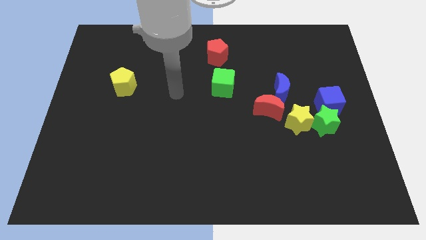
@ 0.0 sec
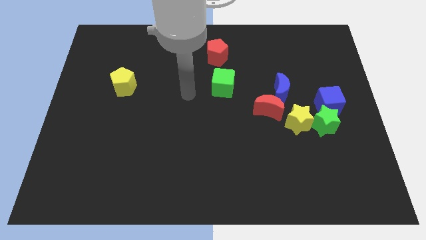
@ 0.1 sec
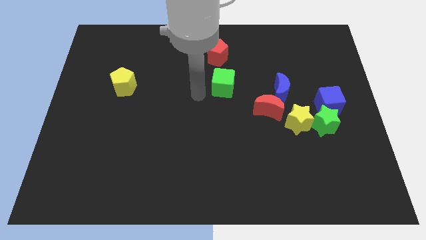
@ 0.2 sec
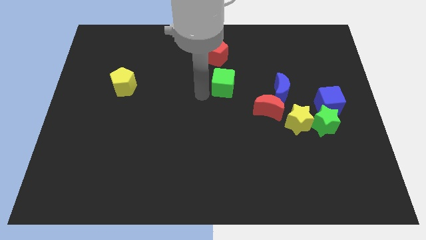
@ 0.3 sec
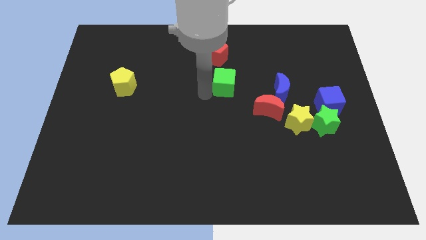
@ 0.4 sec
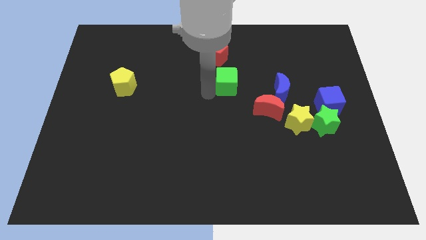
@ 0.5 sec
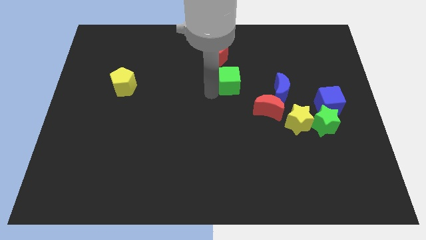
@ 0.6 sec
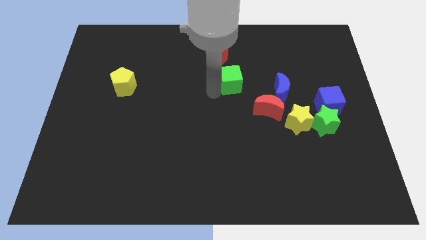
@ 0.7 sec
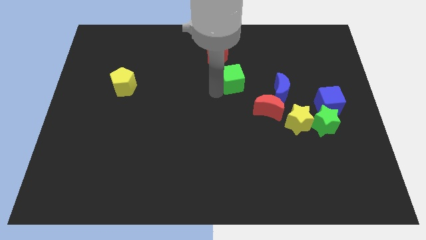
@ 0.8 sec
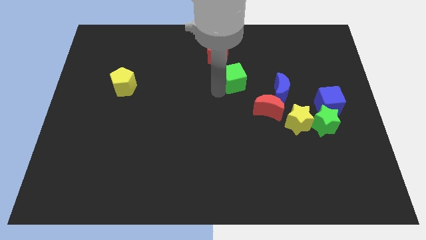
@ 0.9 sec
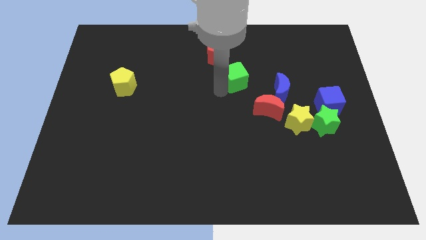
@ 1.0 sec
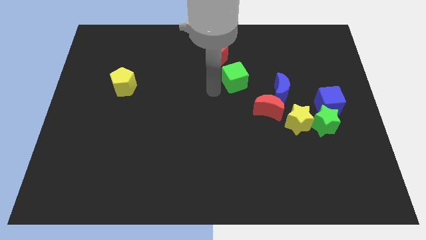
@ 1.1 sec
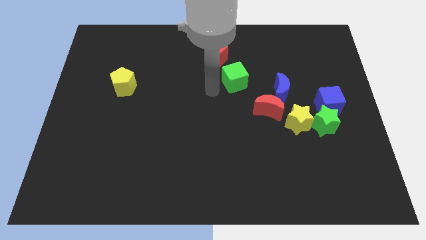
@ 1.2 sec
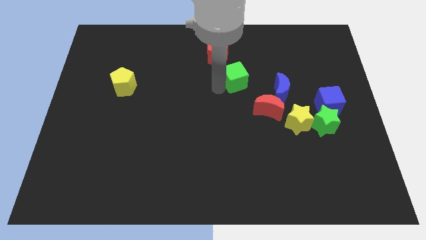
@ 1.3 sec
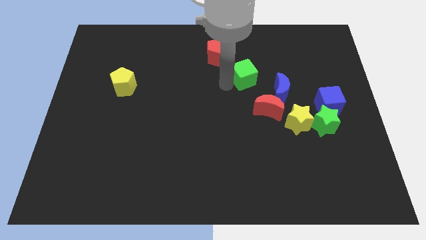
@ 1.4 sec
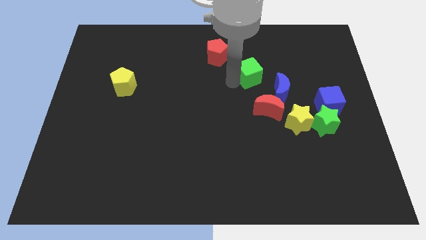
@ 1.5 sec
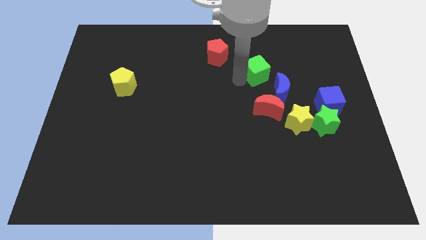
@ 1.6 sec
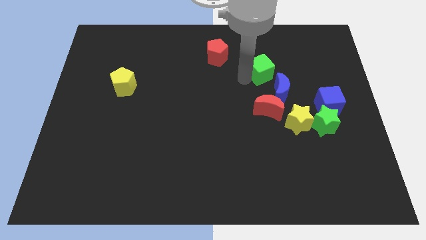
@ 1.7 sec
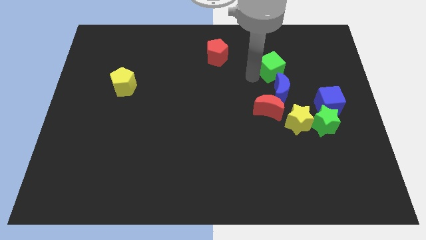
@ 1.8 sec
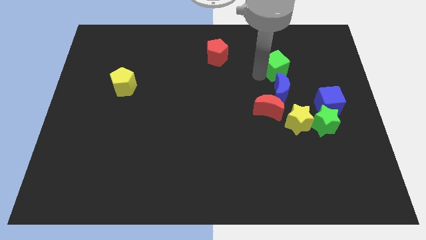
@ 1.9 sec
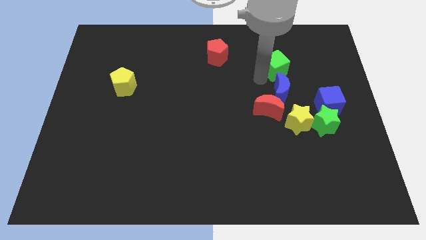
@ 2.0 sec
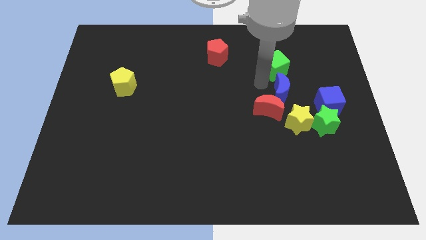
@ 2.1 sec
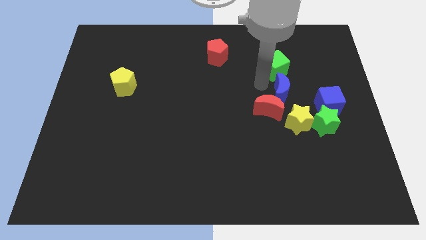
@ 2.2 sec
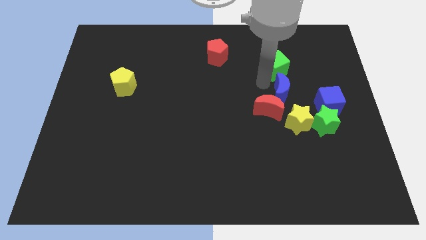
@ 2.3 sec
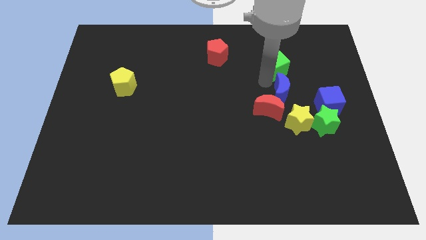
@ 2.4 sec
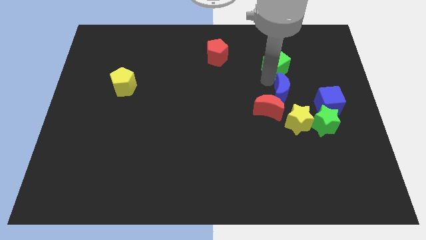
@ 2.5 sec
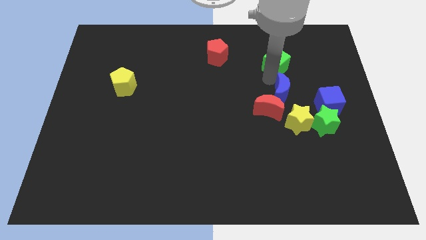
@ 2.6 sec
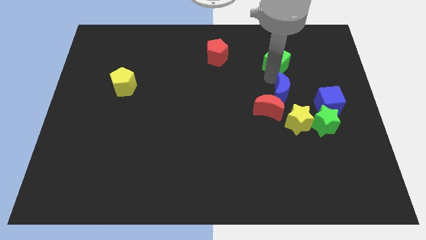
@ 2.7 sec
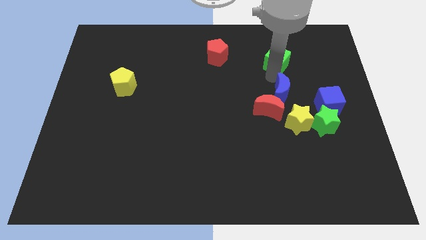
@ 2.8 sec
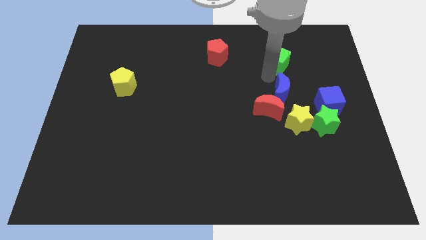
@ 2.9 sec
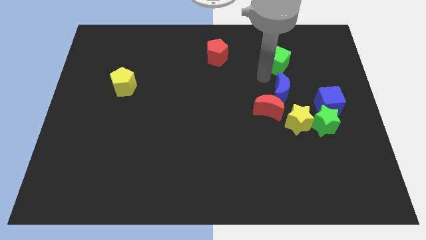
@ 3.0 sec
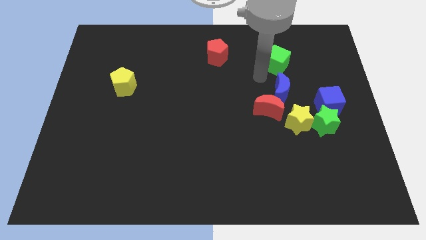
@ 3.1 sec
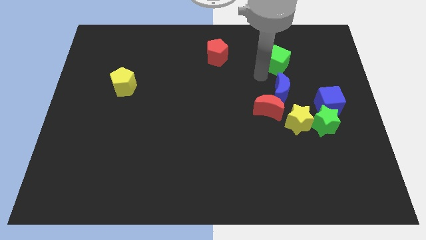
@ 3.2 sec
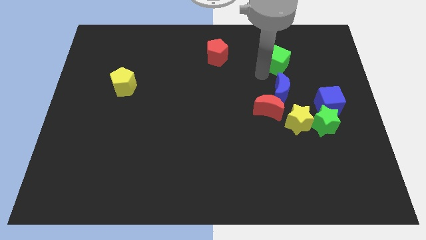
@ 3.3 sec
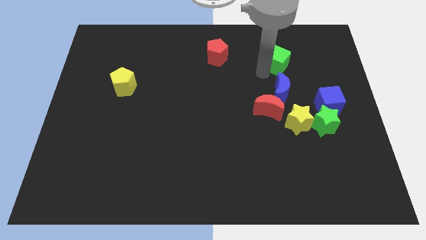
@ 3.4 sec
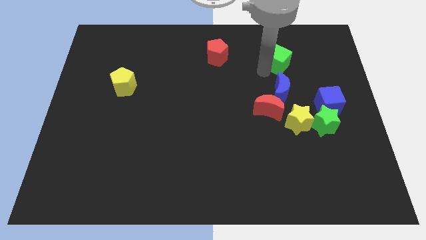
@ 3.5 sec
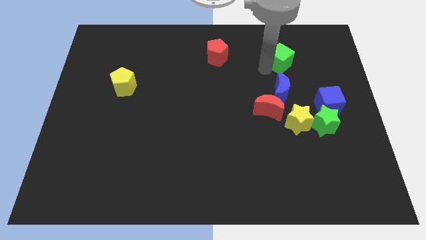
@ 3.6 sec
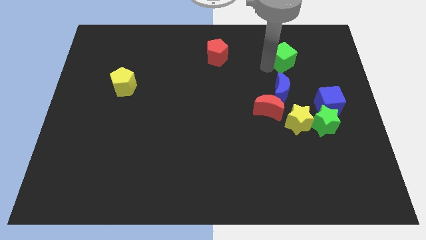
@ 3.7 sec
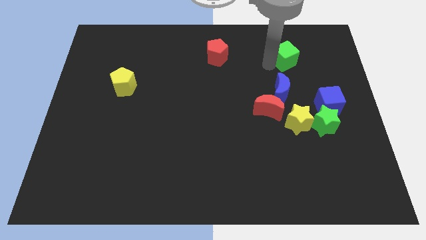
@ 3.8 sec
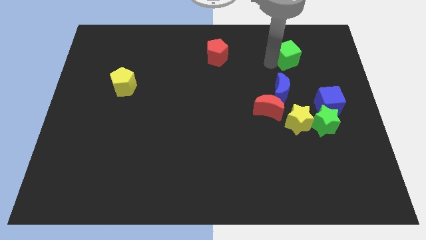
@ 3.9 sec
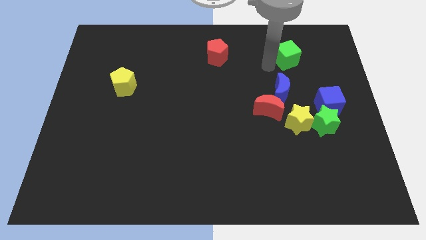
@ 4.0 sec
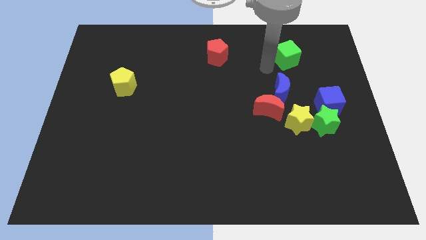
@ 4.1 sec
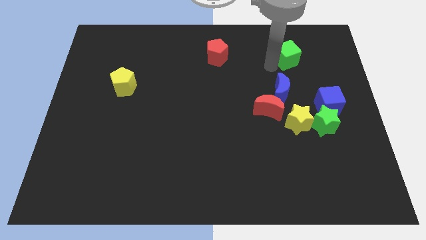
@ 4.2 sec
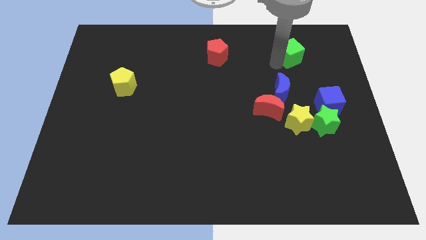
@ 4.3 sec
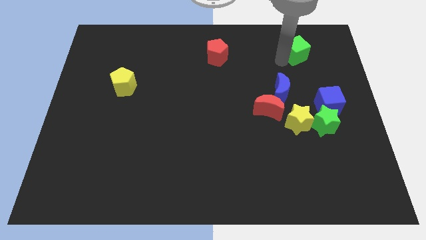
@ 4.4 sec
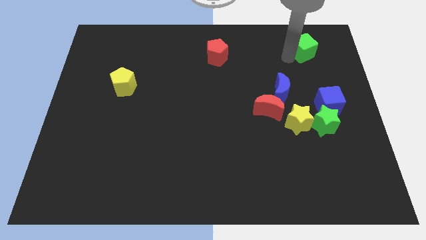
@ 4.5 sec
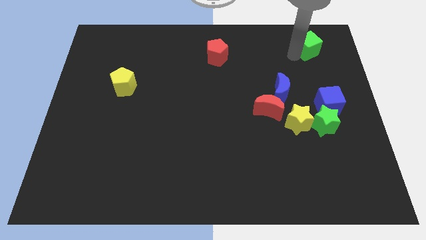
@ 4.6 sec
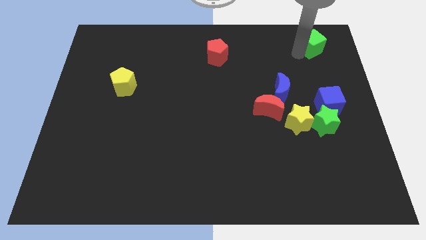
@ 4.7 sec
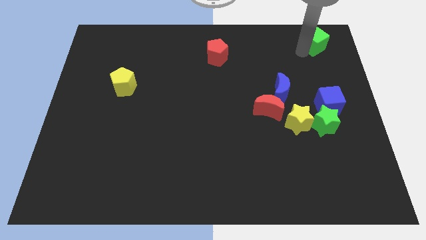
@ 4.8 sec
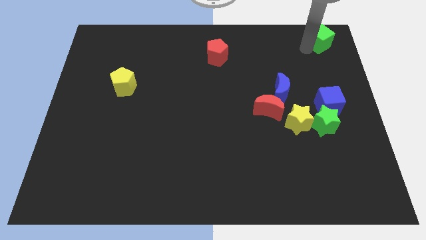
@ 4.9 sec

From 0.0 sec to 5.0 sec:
slide the green cube to the top right of the board

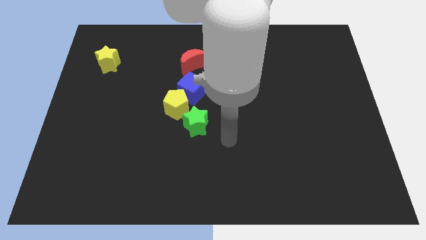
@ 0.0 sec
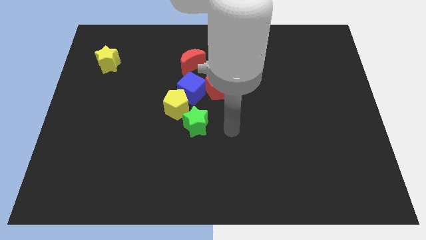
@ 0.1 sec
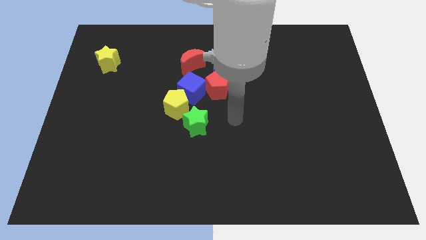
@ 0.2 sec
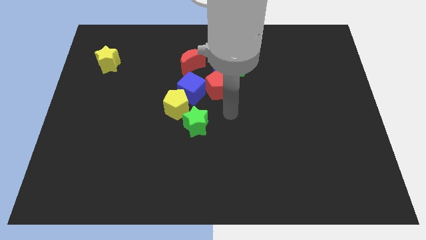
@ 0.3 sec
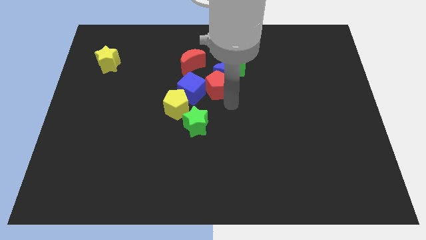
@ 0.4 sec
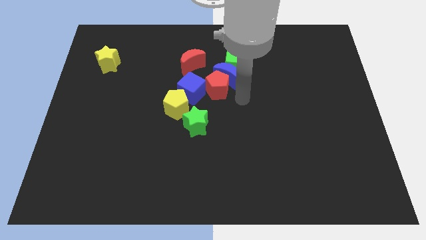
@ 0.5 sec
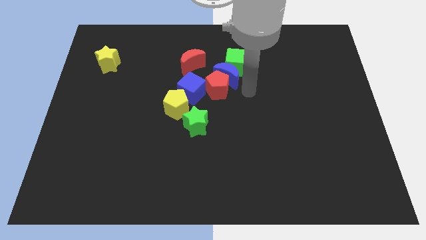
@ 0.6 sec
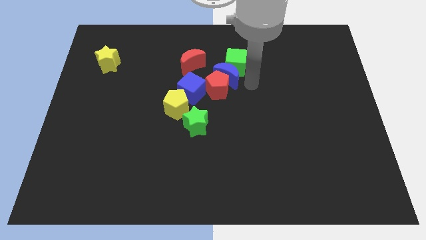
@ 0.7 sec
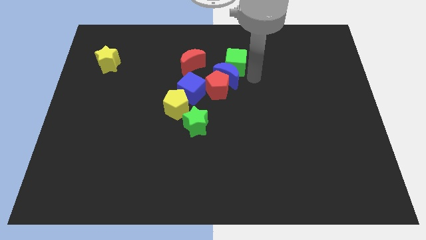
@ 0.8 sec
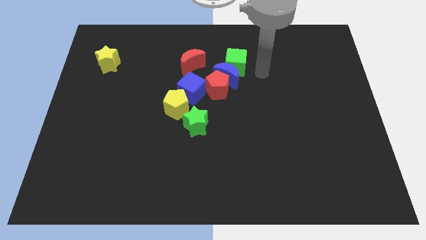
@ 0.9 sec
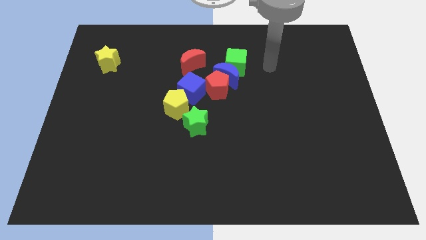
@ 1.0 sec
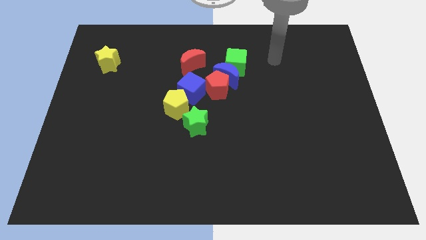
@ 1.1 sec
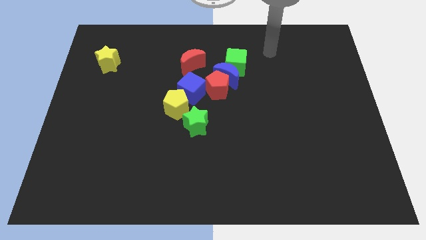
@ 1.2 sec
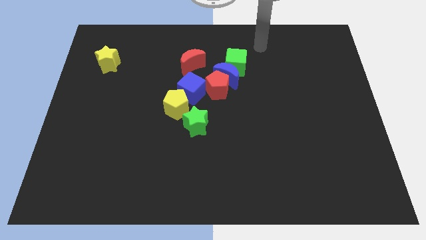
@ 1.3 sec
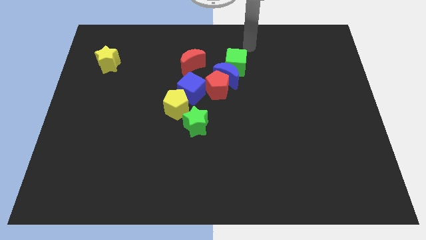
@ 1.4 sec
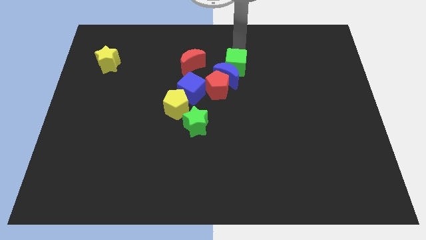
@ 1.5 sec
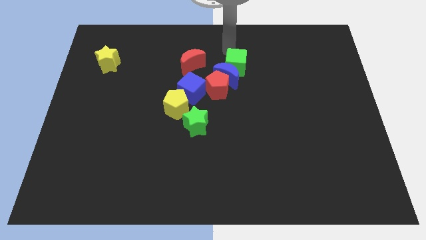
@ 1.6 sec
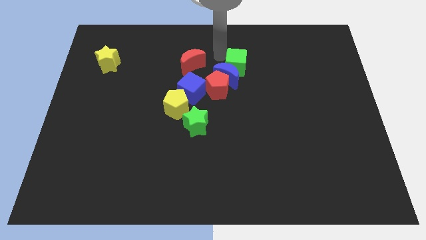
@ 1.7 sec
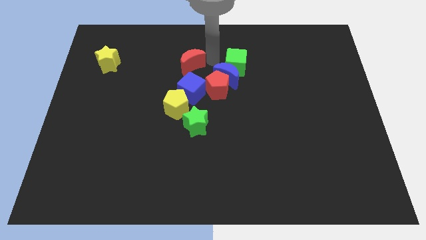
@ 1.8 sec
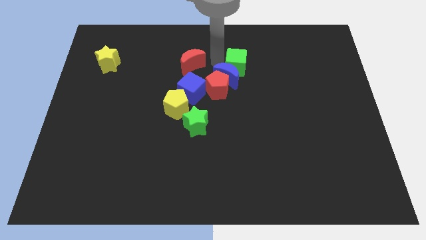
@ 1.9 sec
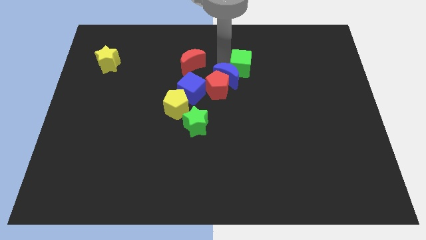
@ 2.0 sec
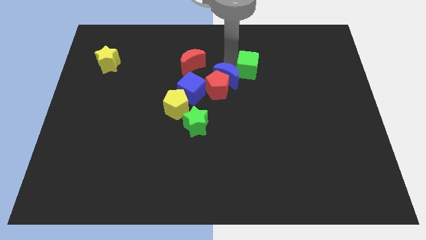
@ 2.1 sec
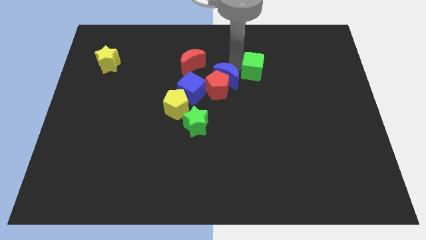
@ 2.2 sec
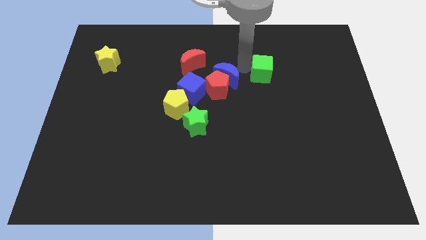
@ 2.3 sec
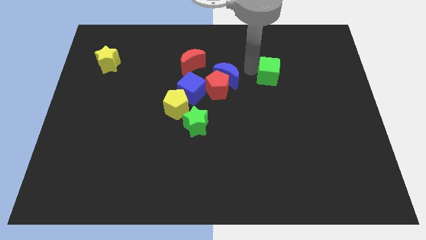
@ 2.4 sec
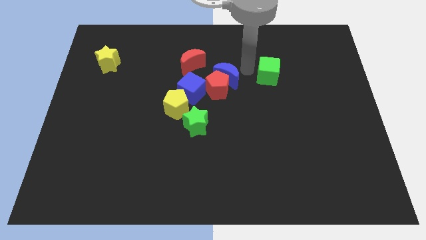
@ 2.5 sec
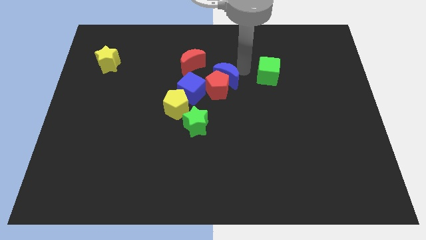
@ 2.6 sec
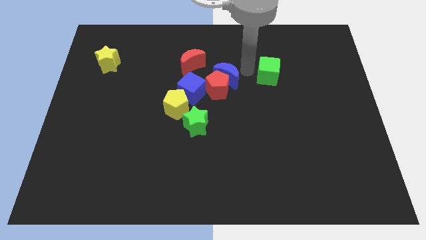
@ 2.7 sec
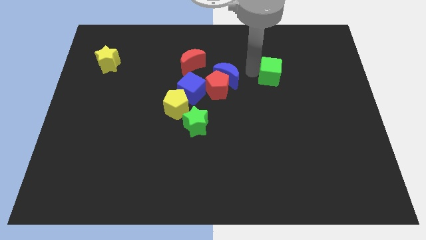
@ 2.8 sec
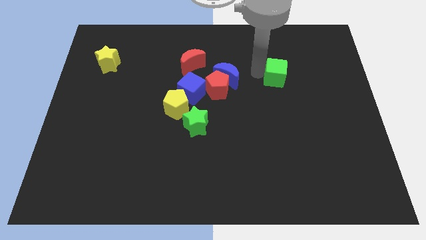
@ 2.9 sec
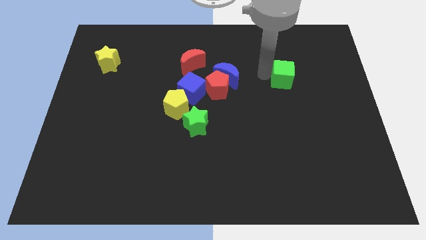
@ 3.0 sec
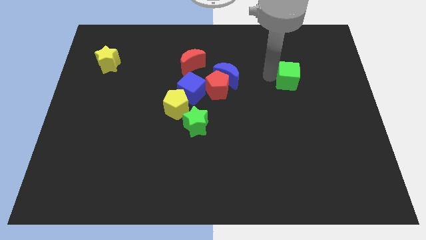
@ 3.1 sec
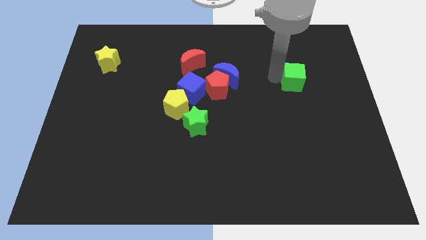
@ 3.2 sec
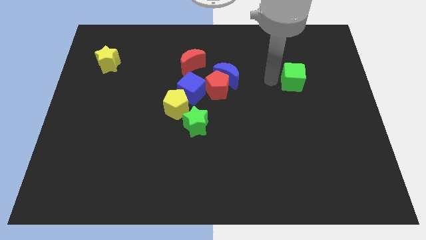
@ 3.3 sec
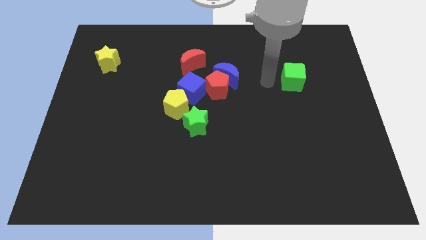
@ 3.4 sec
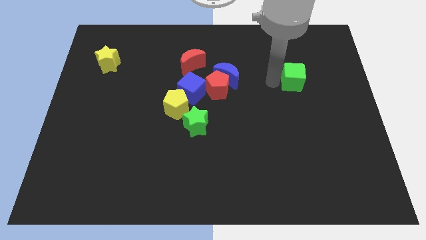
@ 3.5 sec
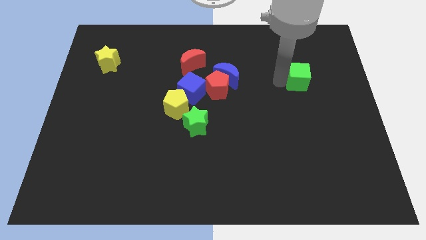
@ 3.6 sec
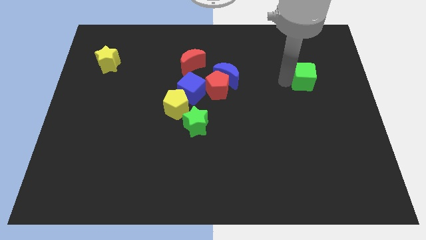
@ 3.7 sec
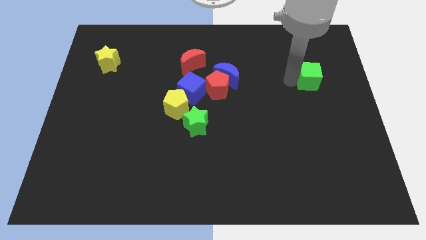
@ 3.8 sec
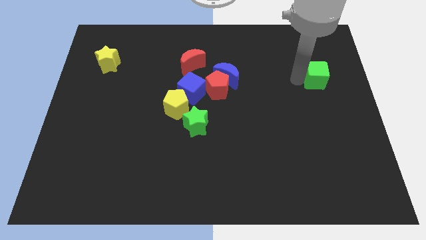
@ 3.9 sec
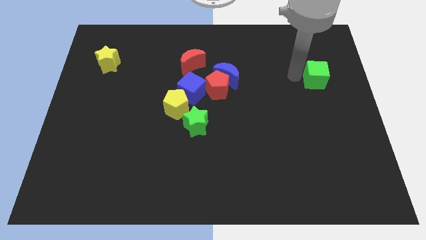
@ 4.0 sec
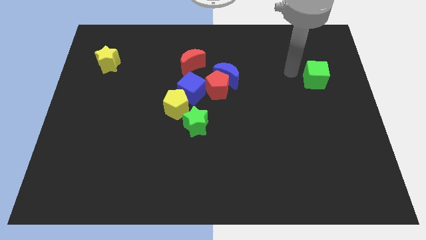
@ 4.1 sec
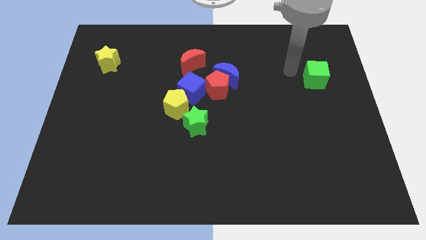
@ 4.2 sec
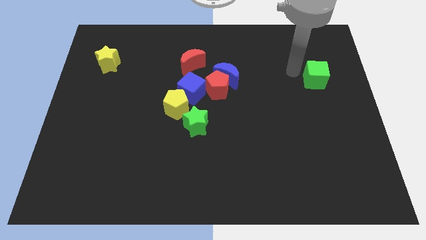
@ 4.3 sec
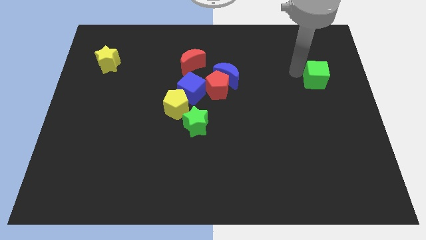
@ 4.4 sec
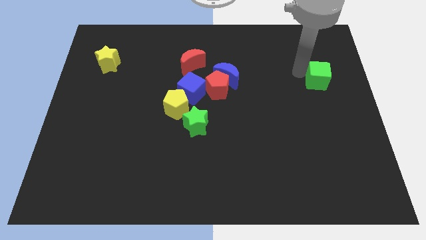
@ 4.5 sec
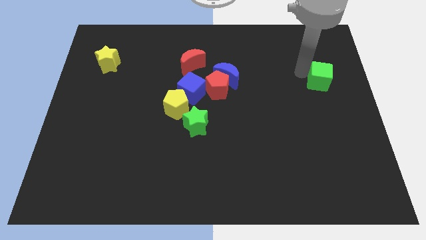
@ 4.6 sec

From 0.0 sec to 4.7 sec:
push the green cube to the right side of the board
